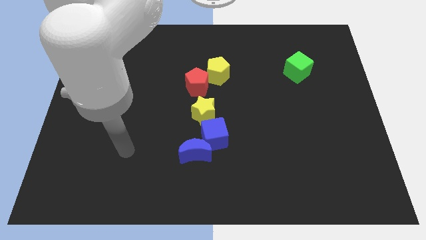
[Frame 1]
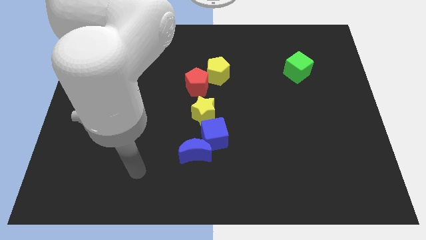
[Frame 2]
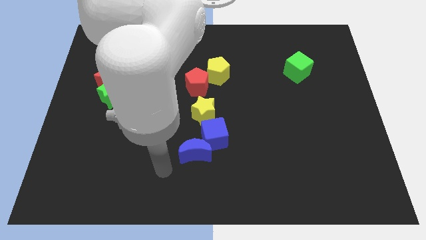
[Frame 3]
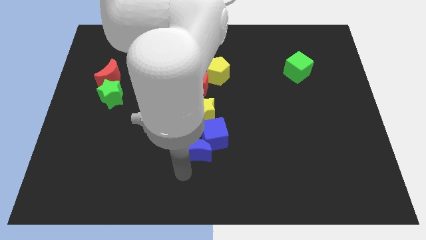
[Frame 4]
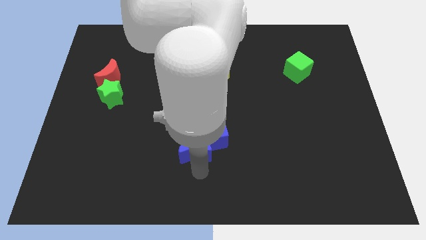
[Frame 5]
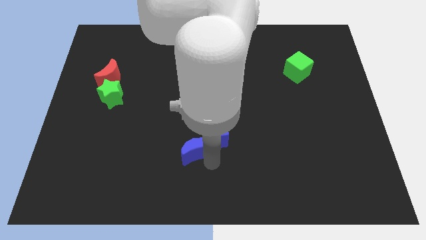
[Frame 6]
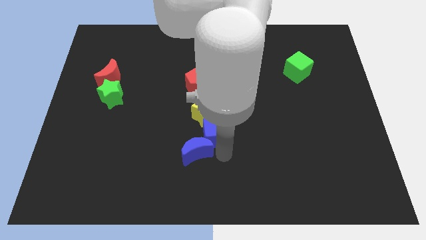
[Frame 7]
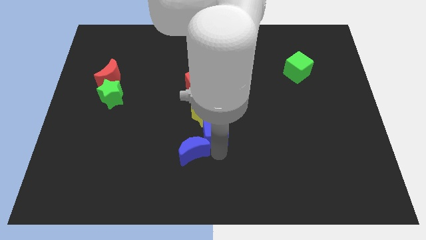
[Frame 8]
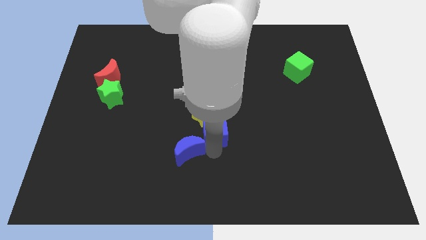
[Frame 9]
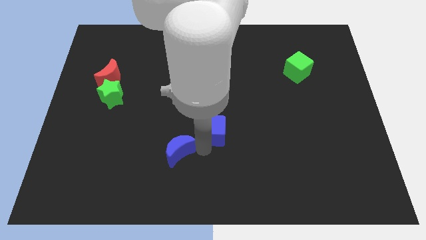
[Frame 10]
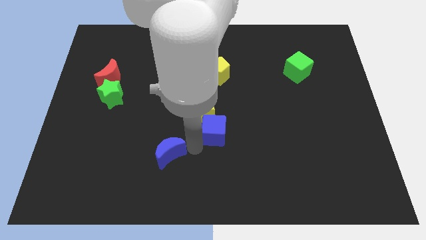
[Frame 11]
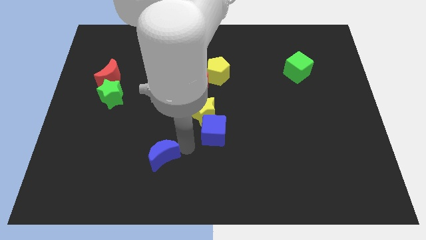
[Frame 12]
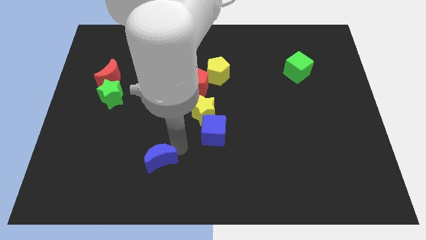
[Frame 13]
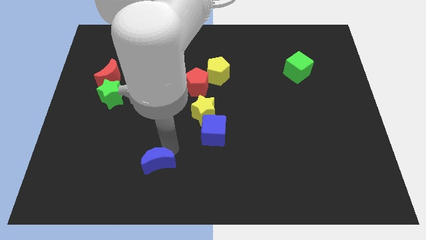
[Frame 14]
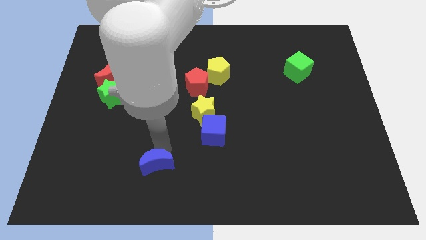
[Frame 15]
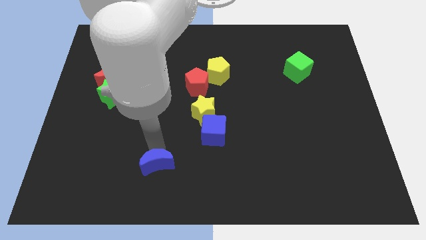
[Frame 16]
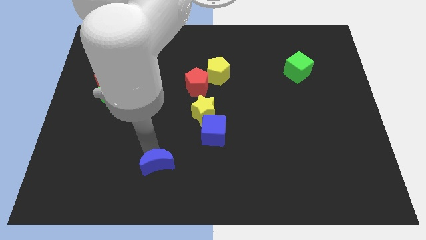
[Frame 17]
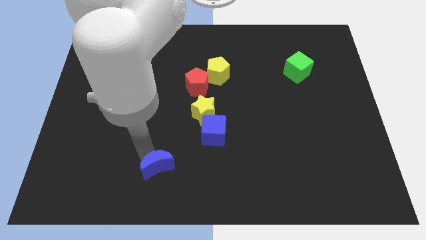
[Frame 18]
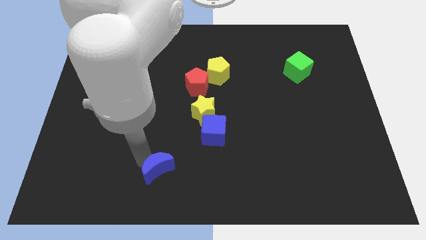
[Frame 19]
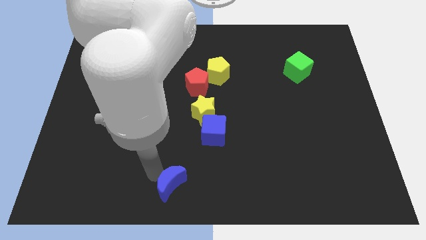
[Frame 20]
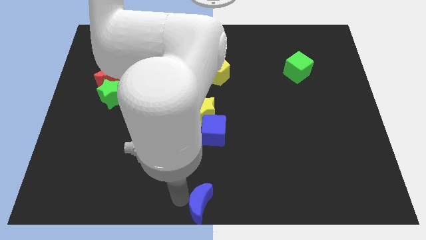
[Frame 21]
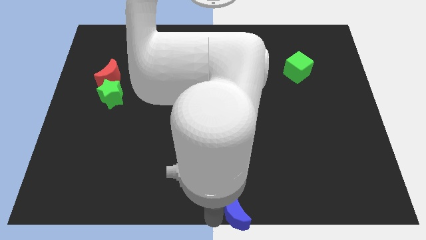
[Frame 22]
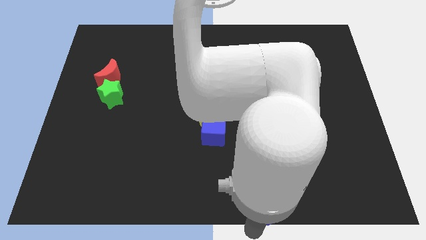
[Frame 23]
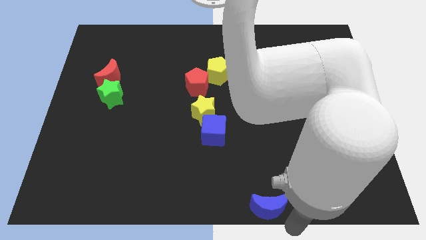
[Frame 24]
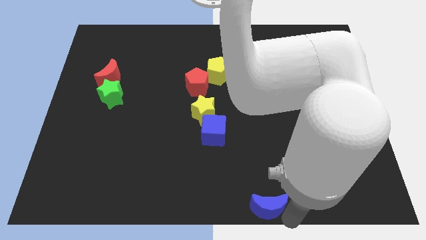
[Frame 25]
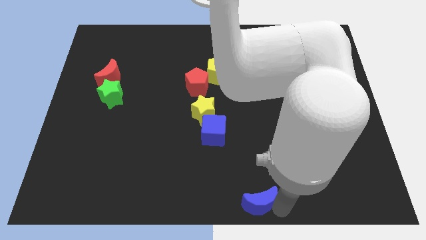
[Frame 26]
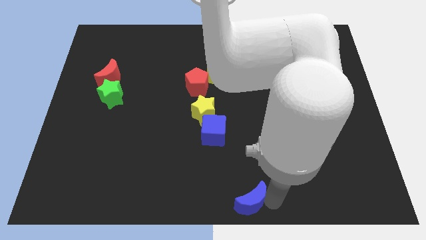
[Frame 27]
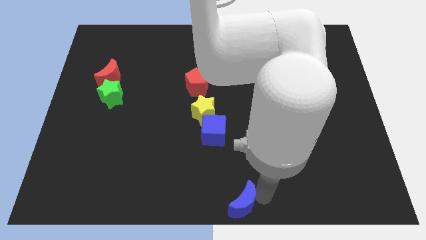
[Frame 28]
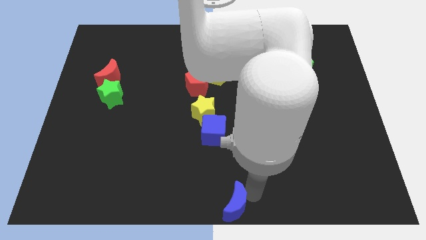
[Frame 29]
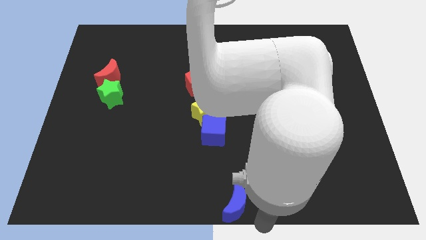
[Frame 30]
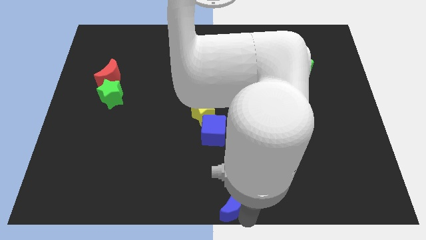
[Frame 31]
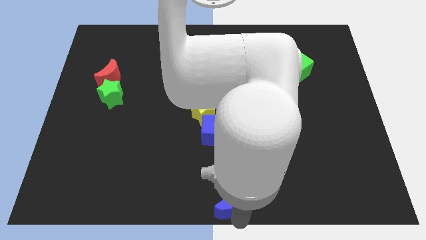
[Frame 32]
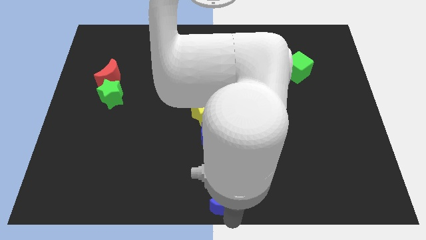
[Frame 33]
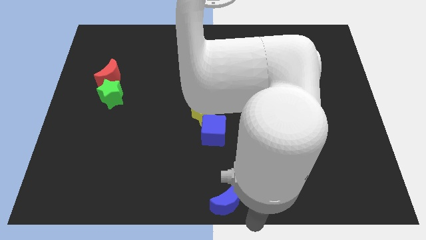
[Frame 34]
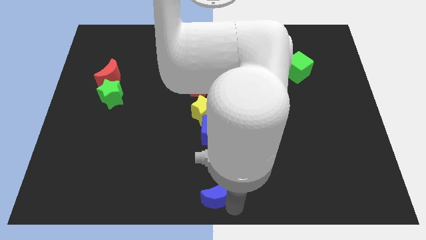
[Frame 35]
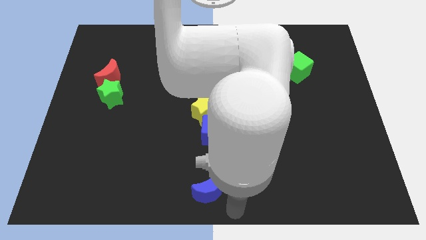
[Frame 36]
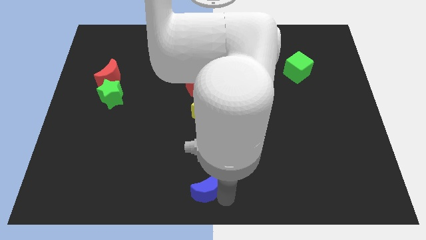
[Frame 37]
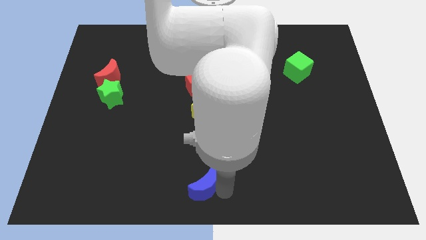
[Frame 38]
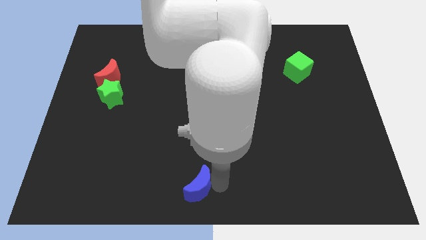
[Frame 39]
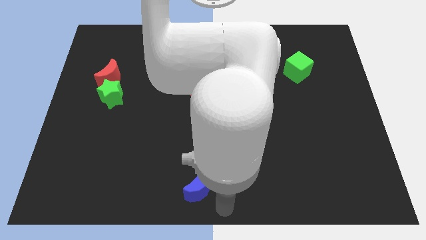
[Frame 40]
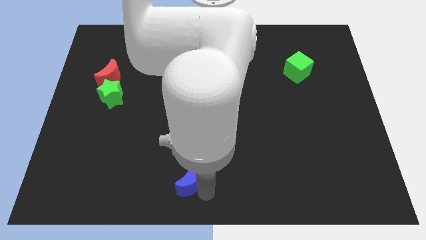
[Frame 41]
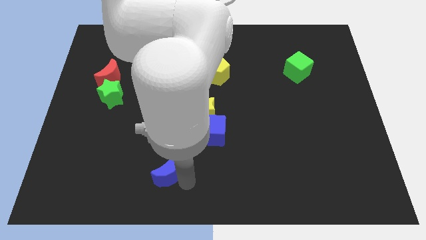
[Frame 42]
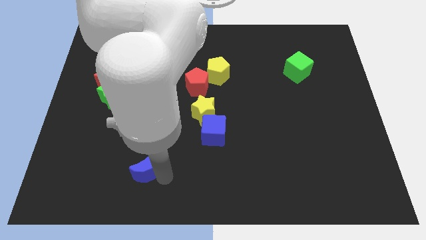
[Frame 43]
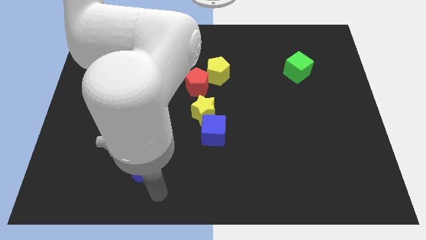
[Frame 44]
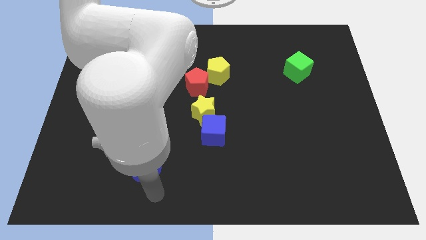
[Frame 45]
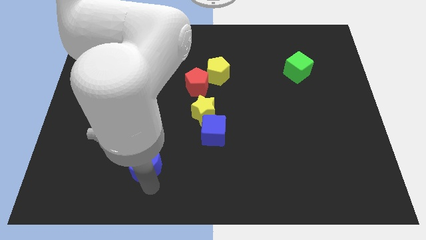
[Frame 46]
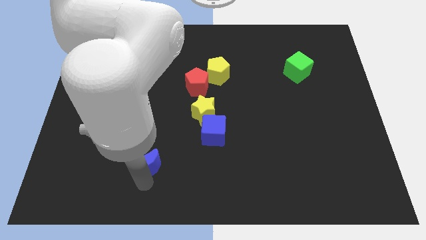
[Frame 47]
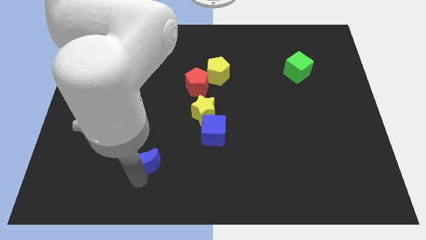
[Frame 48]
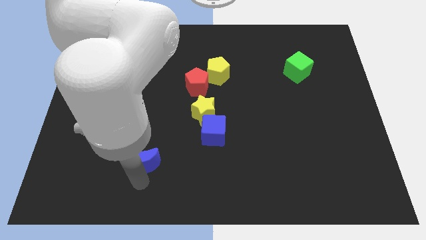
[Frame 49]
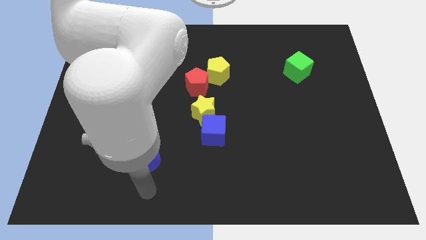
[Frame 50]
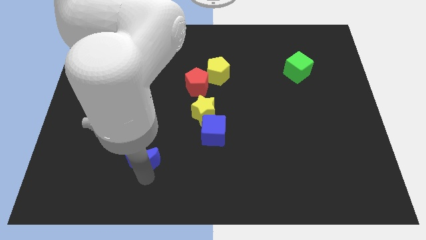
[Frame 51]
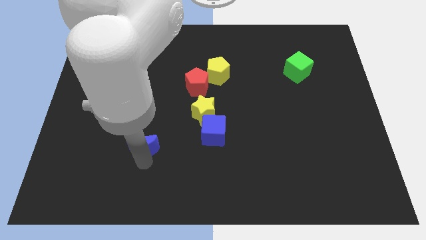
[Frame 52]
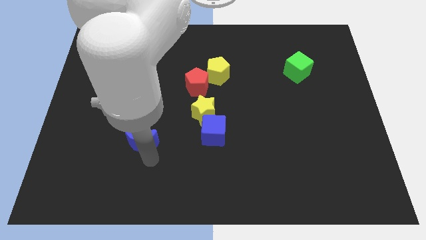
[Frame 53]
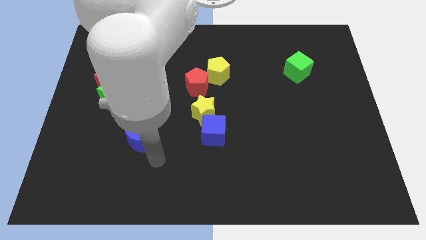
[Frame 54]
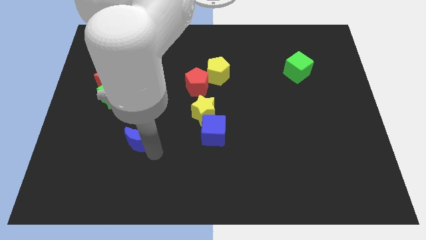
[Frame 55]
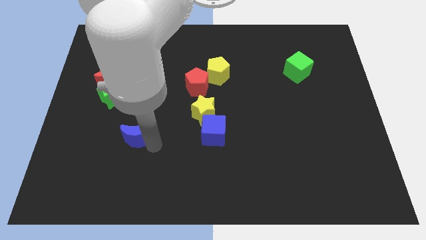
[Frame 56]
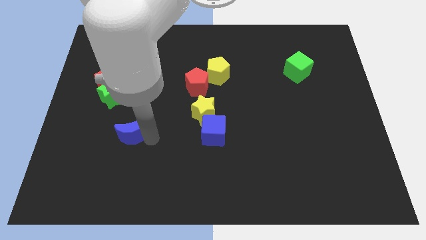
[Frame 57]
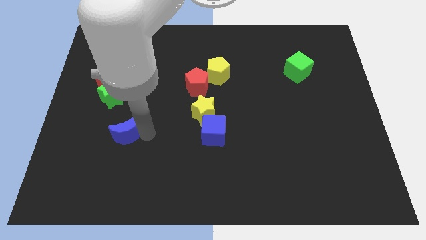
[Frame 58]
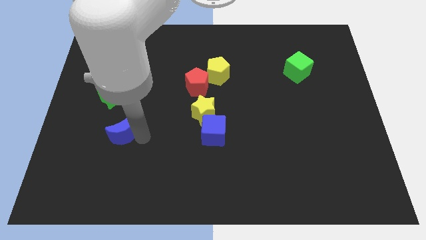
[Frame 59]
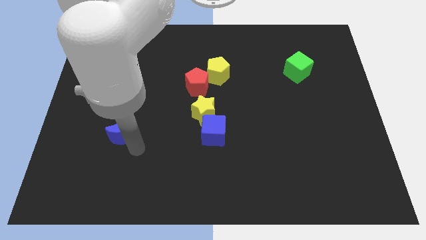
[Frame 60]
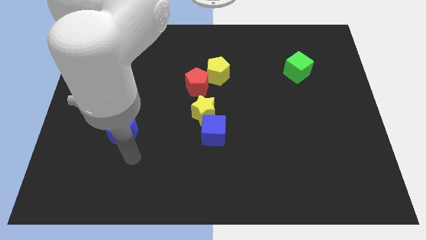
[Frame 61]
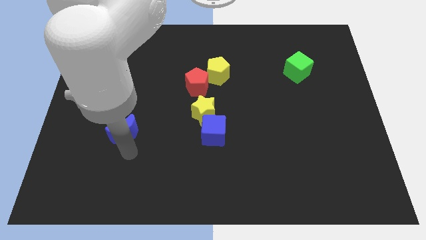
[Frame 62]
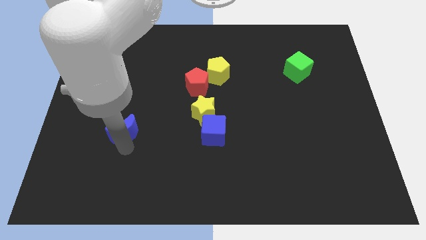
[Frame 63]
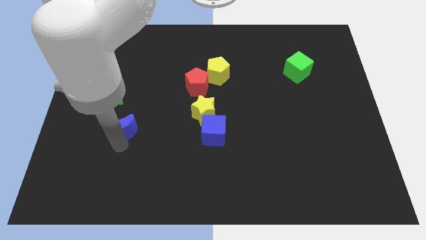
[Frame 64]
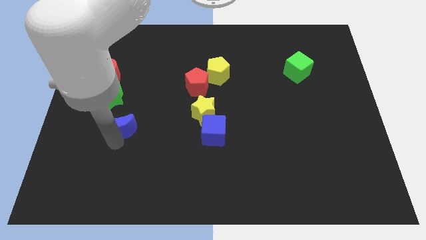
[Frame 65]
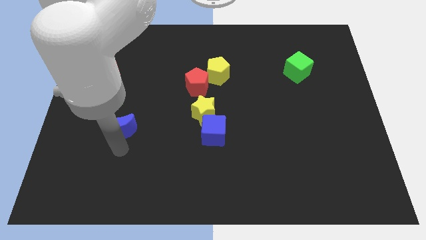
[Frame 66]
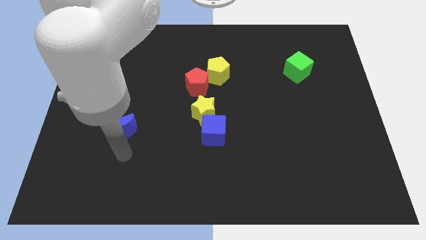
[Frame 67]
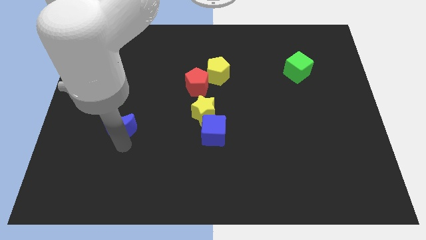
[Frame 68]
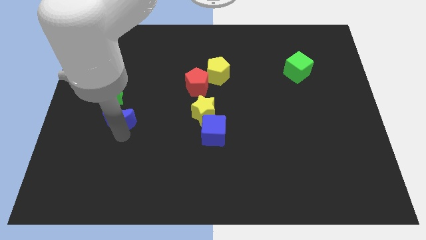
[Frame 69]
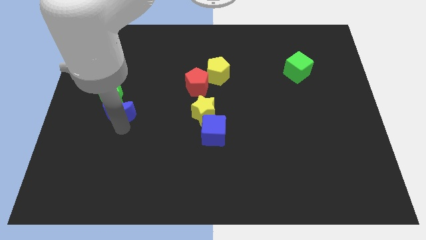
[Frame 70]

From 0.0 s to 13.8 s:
put the blue moon next to the green star

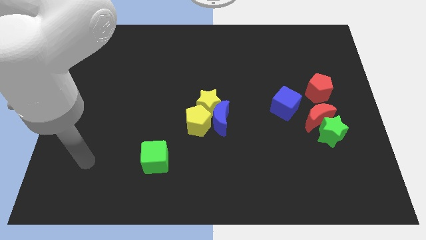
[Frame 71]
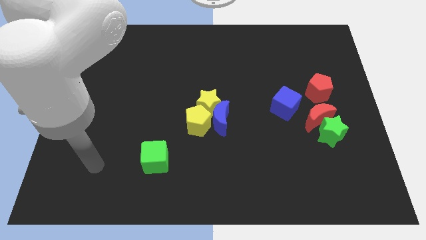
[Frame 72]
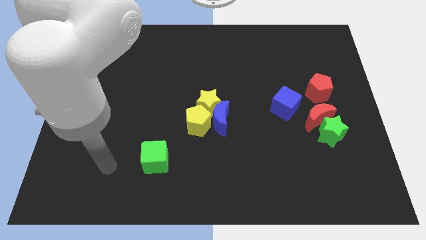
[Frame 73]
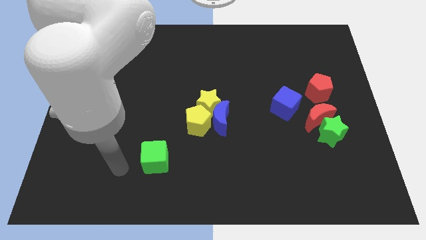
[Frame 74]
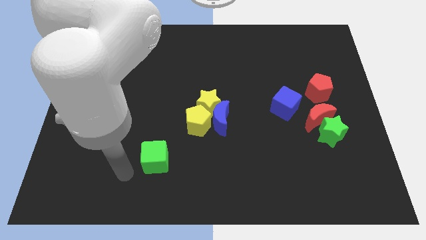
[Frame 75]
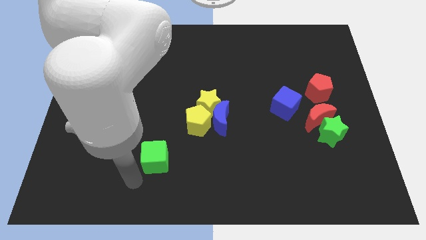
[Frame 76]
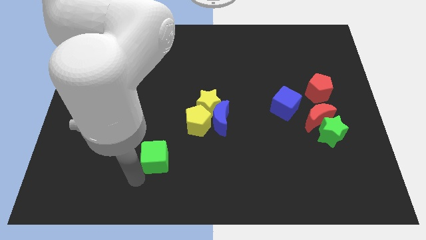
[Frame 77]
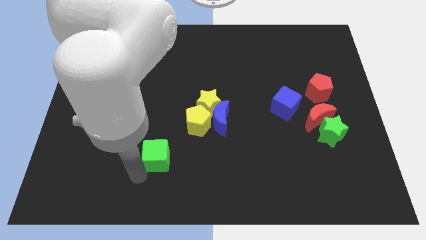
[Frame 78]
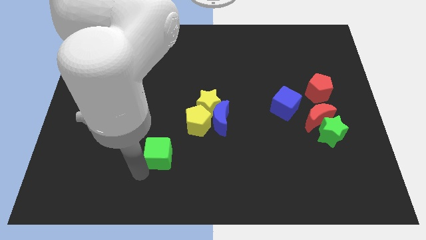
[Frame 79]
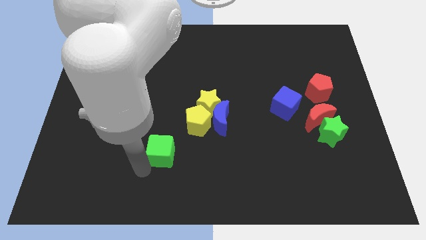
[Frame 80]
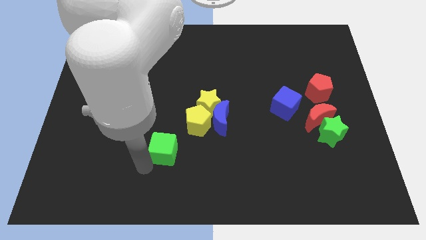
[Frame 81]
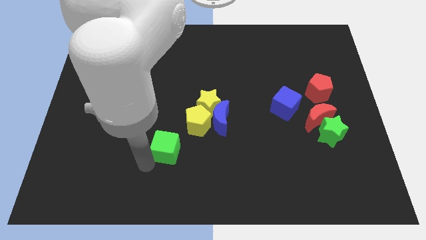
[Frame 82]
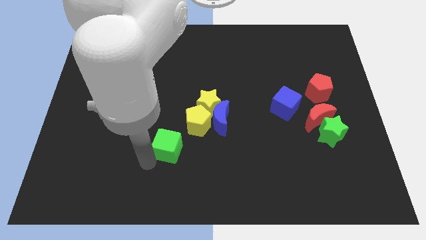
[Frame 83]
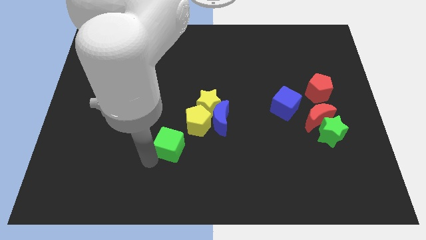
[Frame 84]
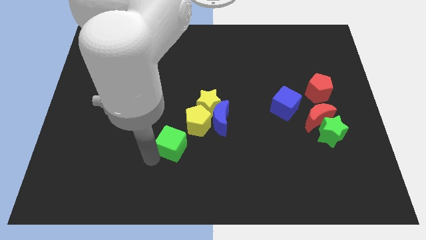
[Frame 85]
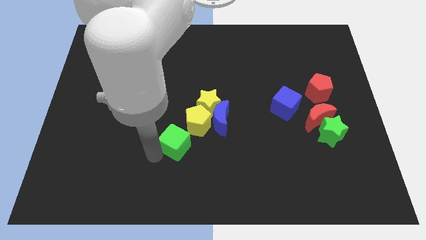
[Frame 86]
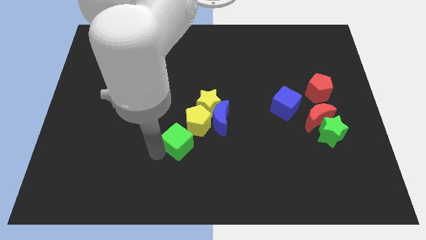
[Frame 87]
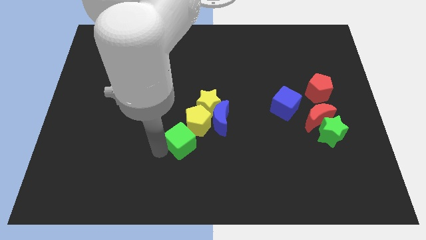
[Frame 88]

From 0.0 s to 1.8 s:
slide the green cube towards the yellow pentagon
